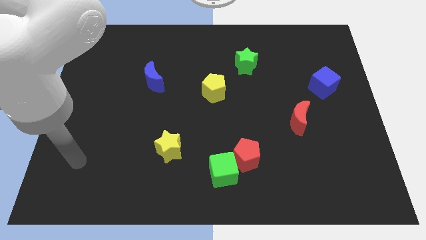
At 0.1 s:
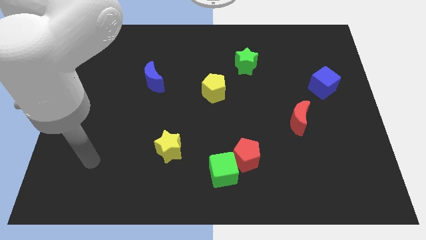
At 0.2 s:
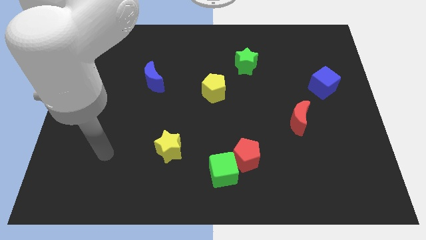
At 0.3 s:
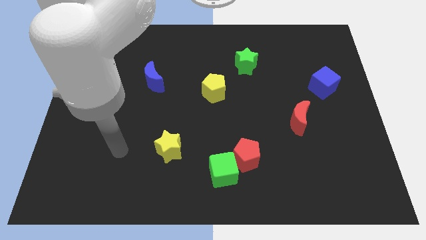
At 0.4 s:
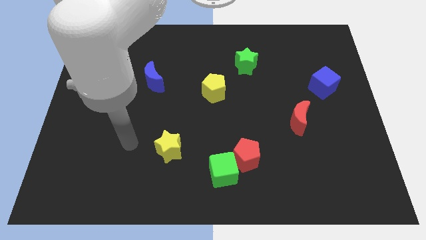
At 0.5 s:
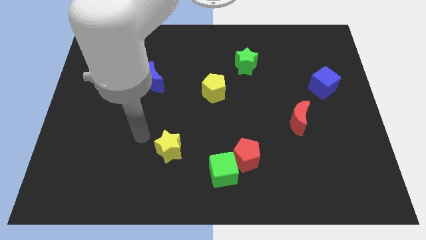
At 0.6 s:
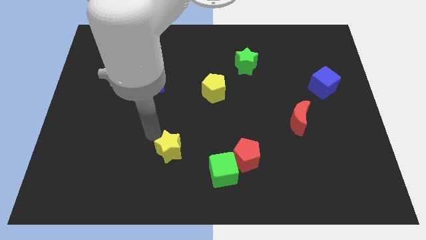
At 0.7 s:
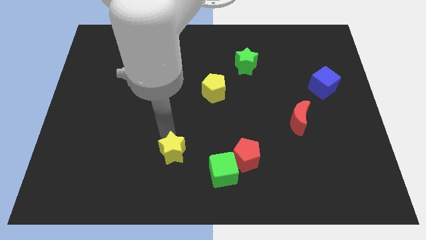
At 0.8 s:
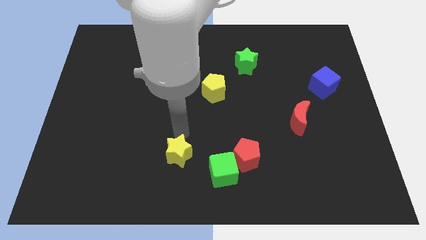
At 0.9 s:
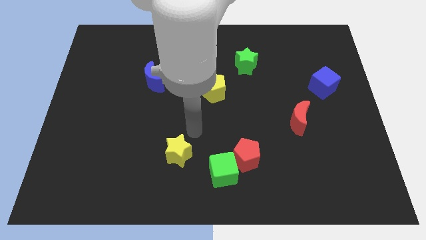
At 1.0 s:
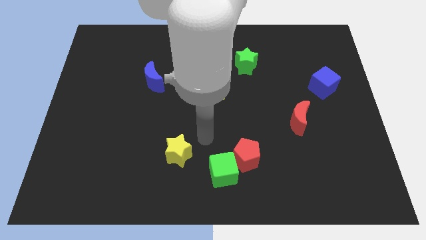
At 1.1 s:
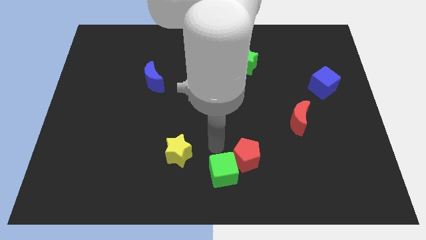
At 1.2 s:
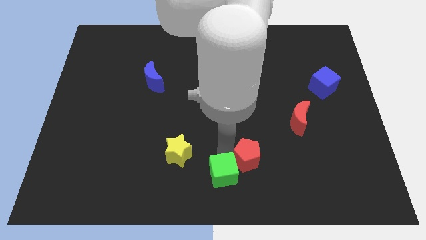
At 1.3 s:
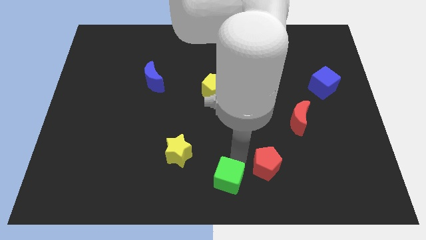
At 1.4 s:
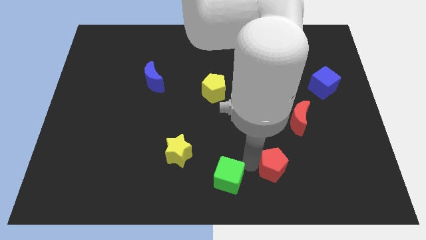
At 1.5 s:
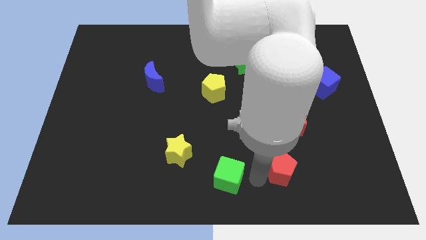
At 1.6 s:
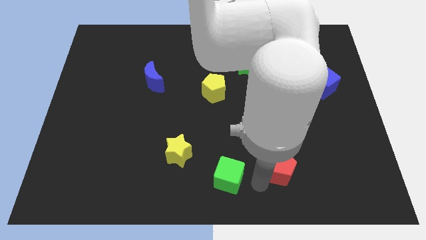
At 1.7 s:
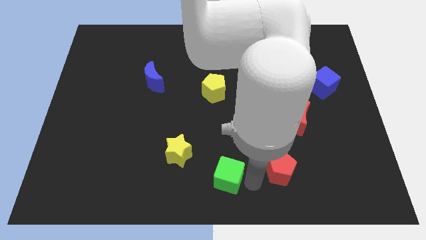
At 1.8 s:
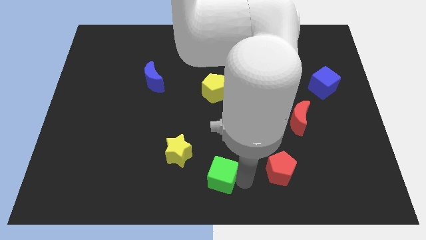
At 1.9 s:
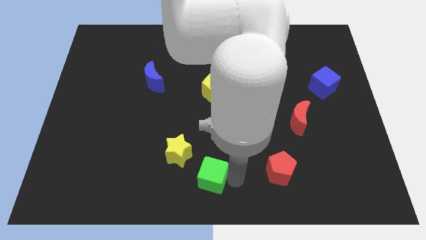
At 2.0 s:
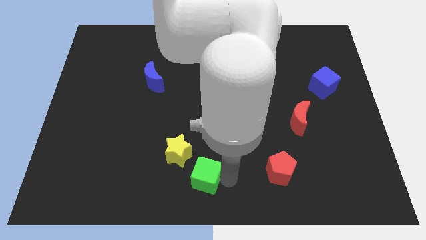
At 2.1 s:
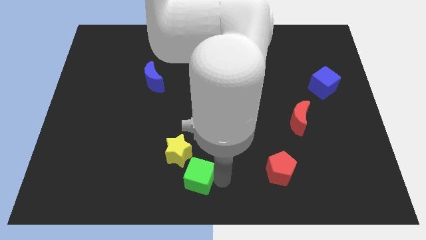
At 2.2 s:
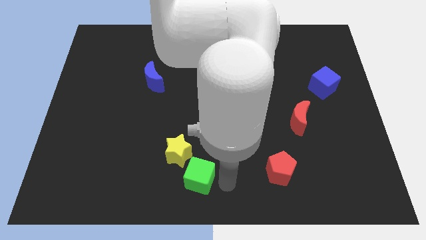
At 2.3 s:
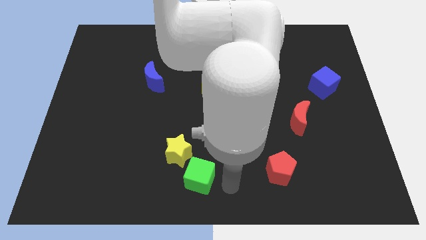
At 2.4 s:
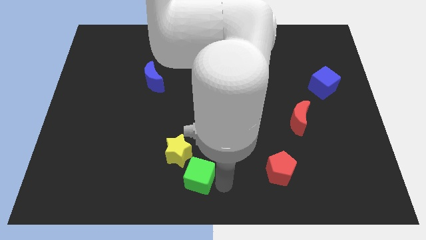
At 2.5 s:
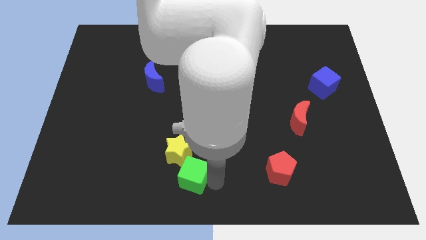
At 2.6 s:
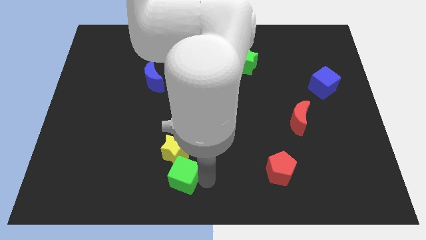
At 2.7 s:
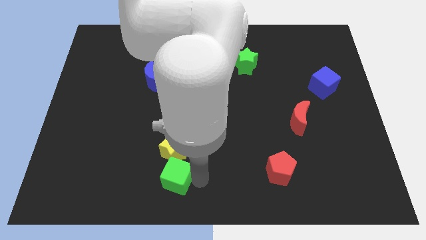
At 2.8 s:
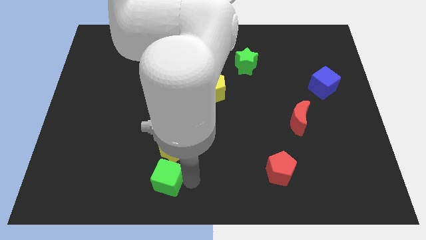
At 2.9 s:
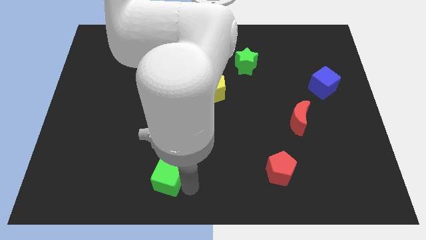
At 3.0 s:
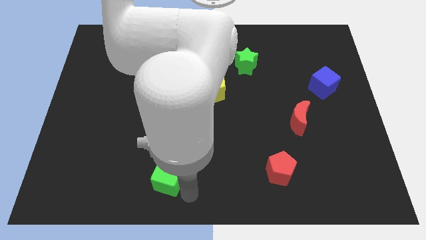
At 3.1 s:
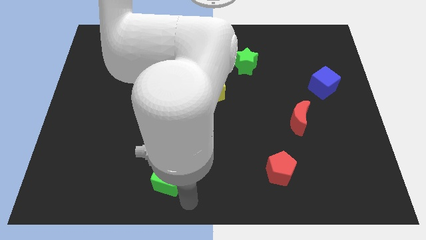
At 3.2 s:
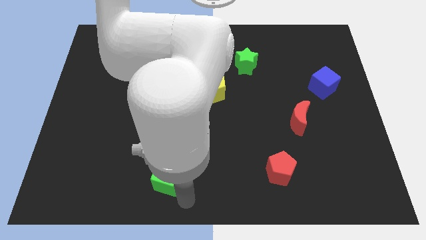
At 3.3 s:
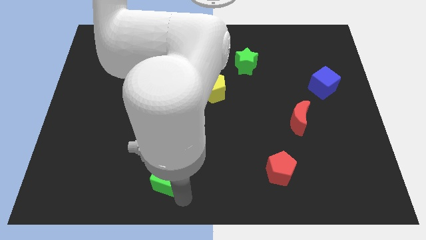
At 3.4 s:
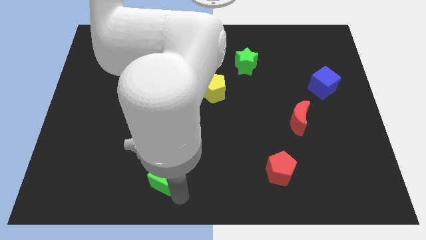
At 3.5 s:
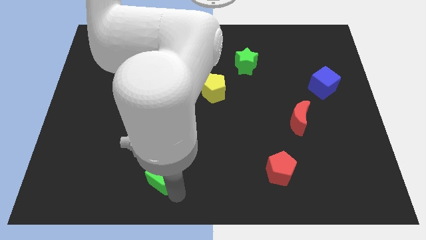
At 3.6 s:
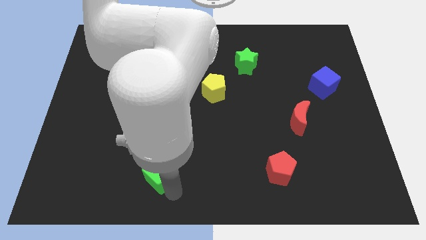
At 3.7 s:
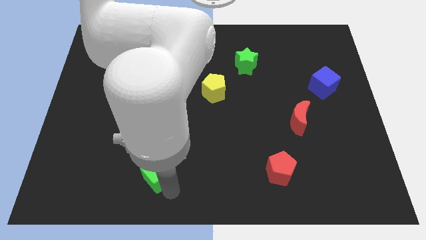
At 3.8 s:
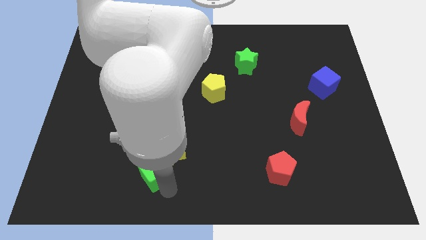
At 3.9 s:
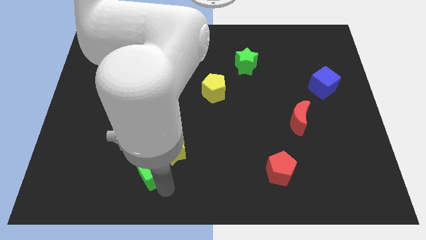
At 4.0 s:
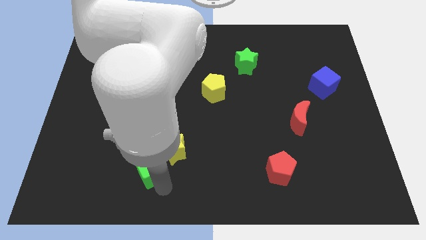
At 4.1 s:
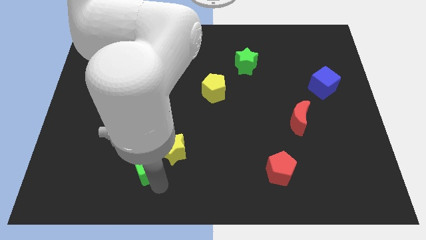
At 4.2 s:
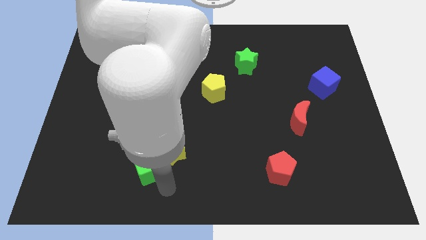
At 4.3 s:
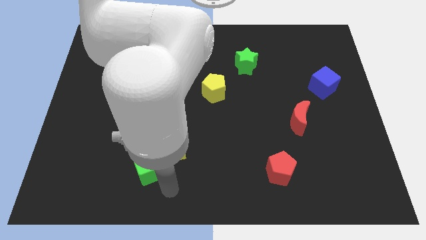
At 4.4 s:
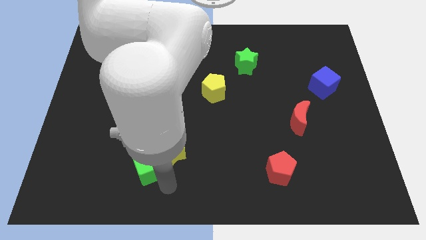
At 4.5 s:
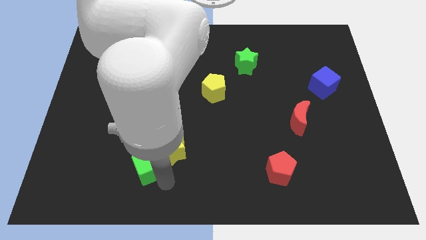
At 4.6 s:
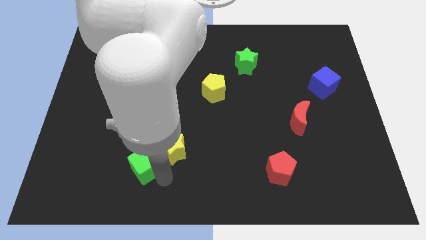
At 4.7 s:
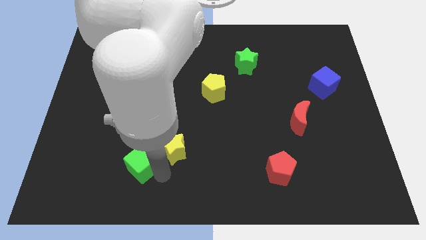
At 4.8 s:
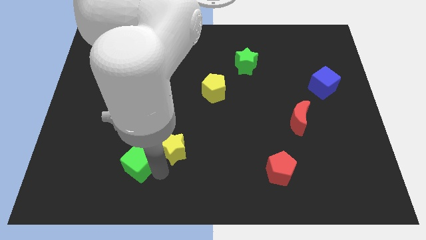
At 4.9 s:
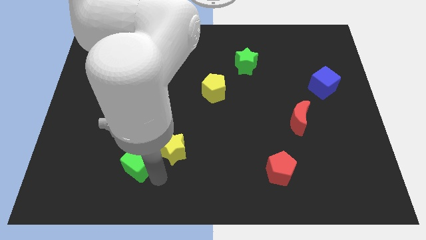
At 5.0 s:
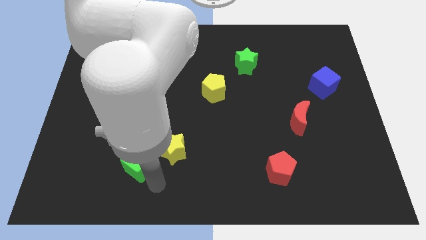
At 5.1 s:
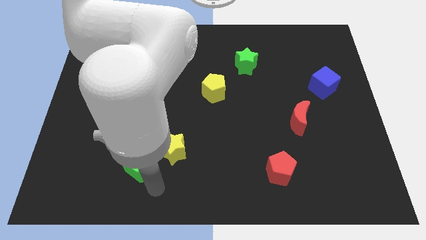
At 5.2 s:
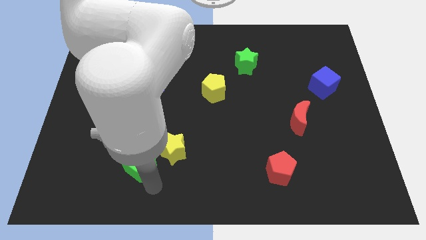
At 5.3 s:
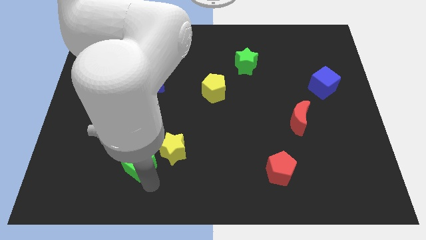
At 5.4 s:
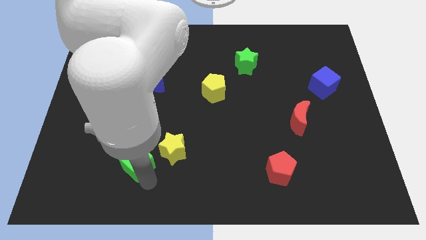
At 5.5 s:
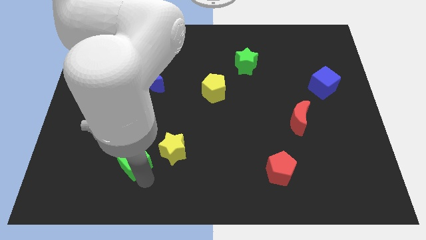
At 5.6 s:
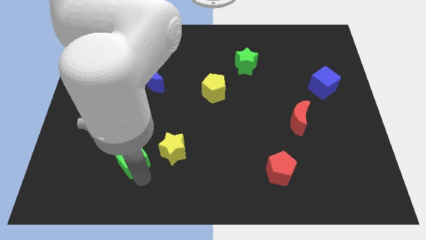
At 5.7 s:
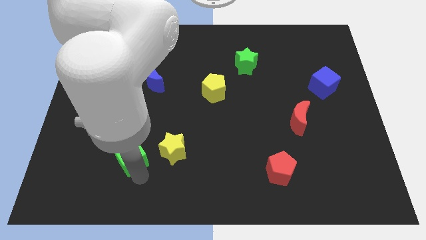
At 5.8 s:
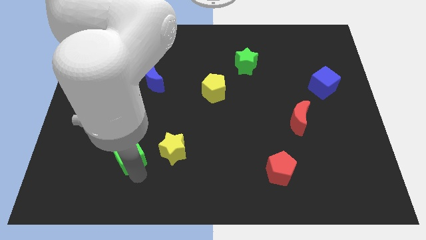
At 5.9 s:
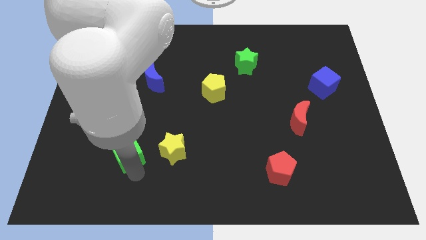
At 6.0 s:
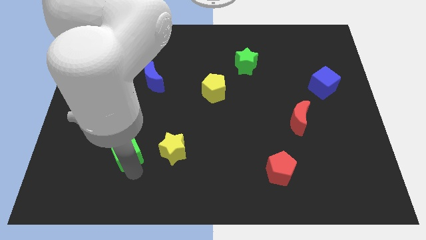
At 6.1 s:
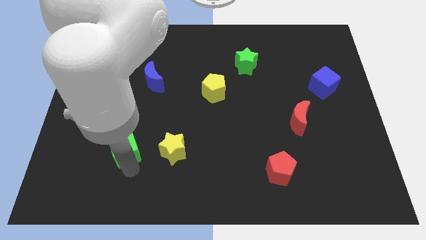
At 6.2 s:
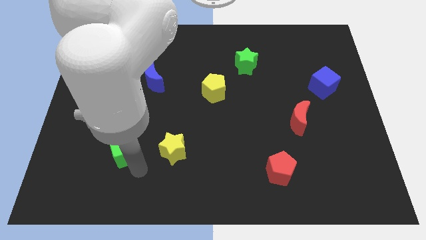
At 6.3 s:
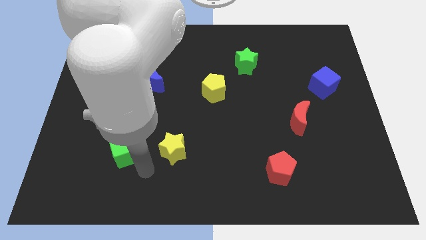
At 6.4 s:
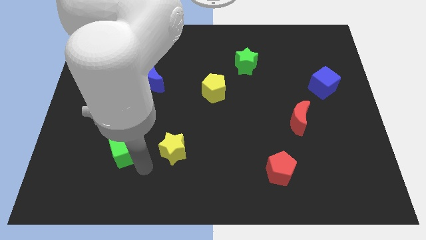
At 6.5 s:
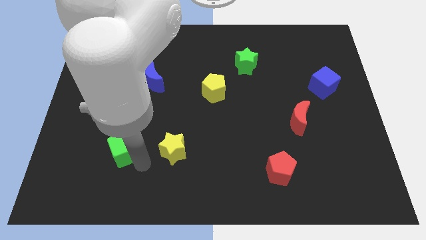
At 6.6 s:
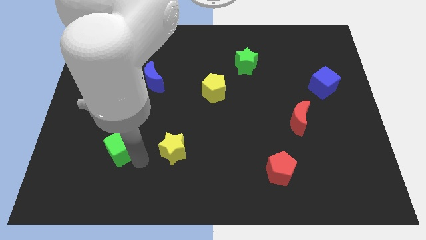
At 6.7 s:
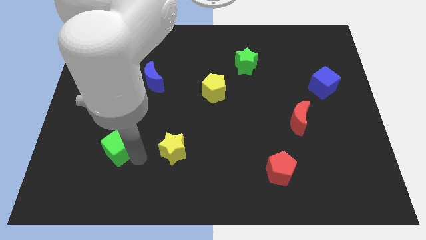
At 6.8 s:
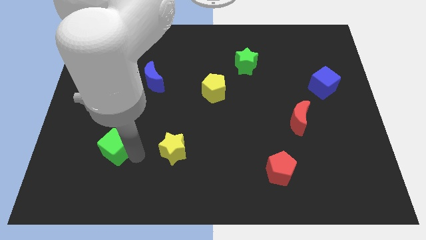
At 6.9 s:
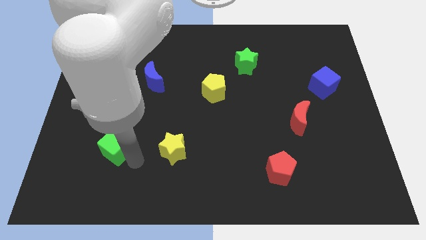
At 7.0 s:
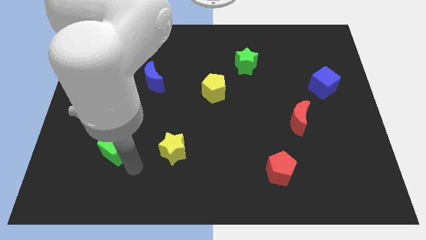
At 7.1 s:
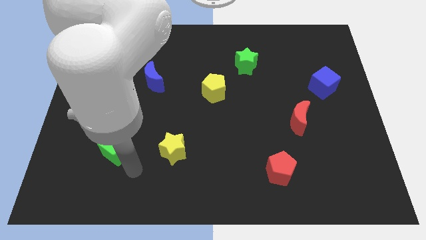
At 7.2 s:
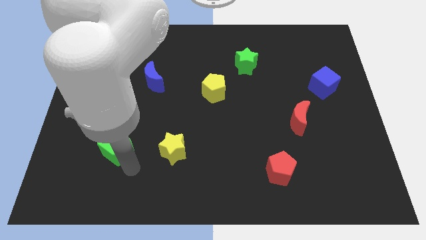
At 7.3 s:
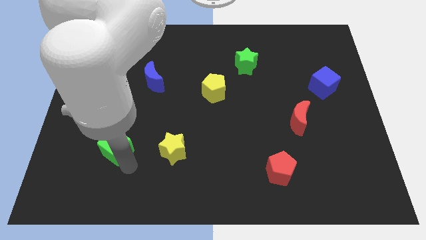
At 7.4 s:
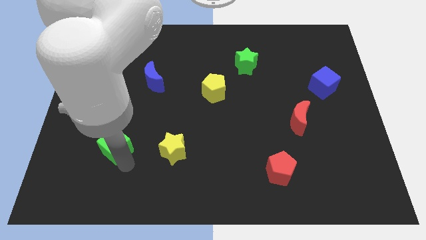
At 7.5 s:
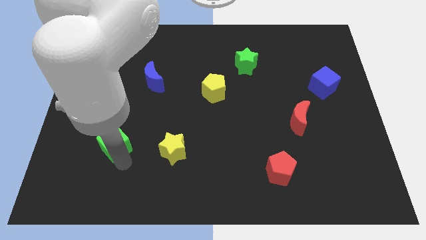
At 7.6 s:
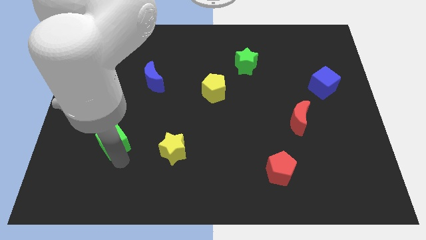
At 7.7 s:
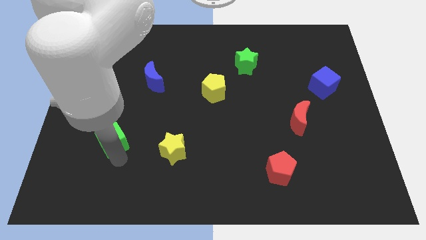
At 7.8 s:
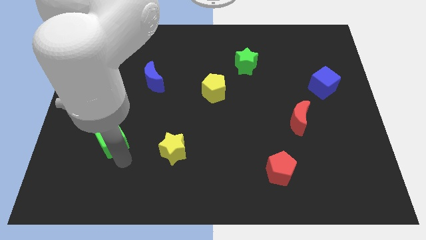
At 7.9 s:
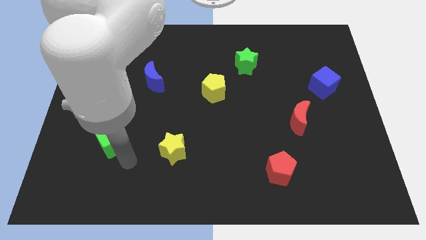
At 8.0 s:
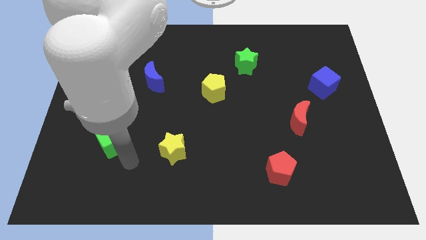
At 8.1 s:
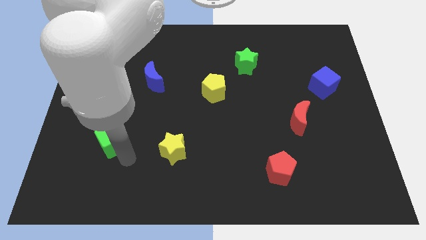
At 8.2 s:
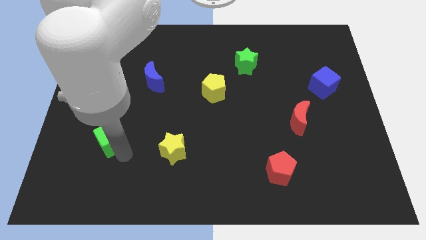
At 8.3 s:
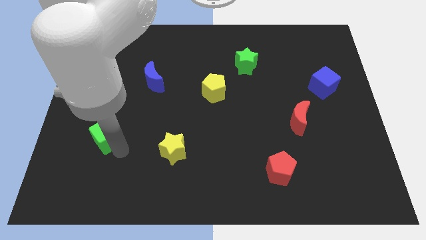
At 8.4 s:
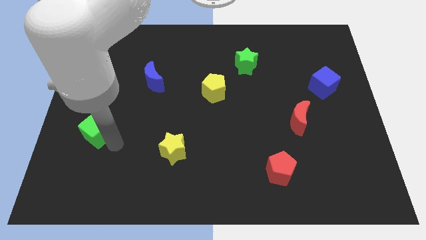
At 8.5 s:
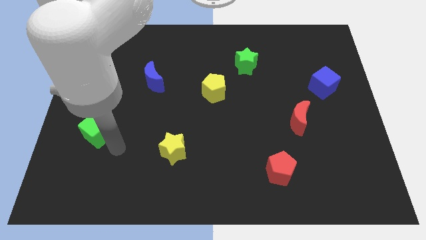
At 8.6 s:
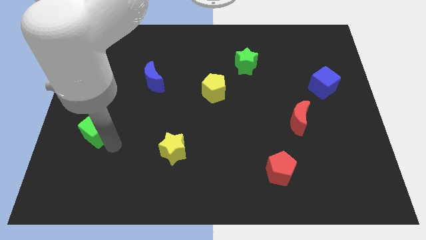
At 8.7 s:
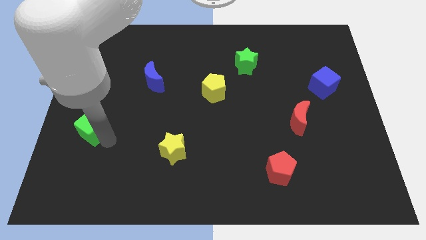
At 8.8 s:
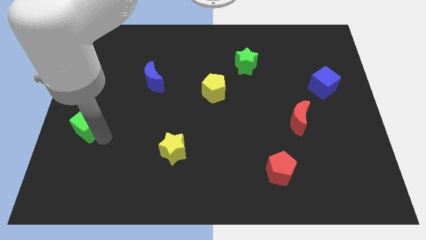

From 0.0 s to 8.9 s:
put the green cube to the left side
